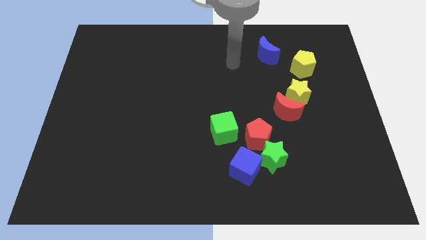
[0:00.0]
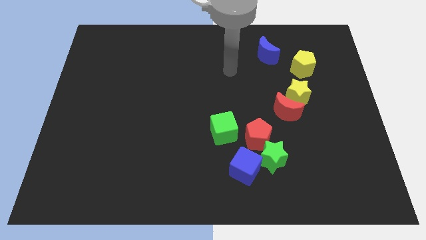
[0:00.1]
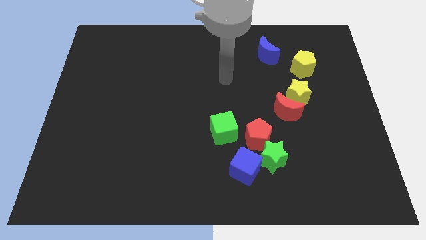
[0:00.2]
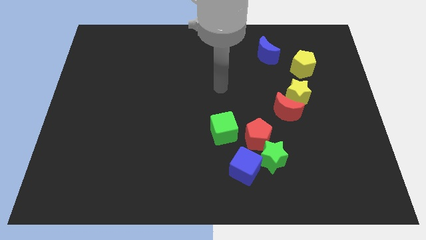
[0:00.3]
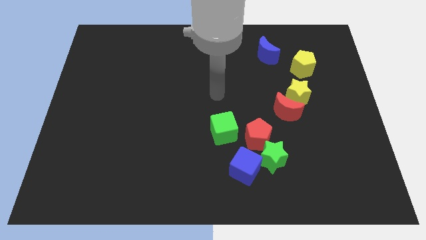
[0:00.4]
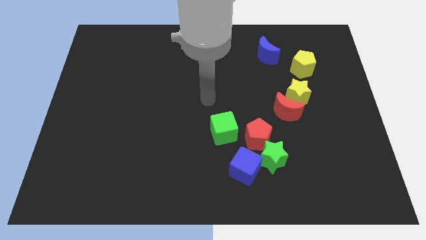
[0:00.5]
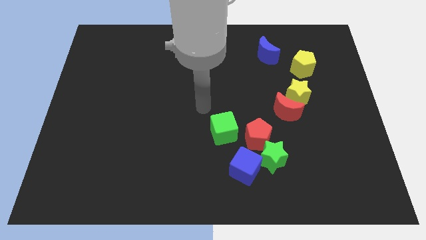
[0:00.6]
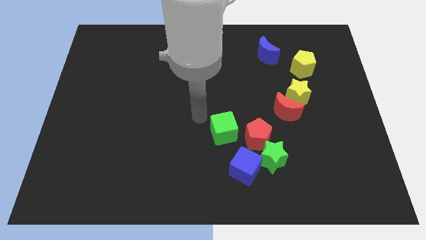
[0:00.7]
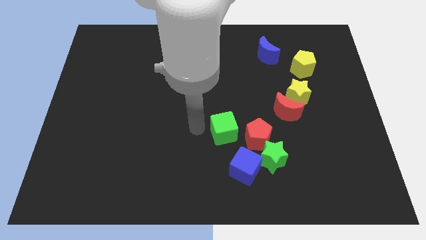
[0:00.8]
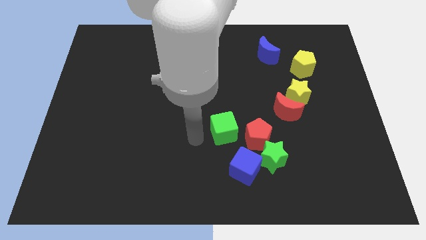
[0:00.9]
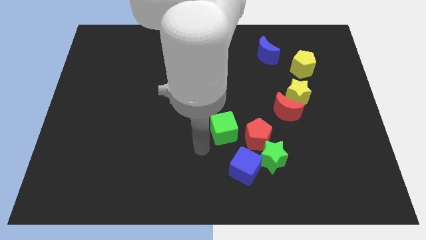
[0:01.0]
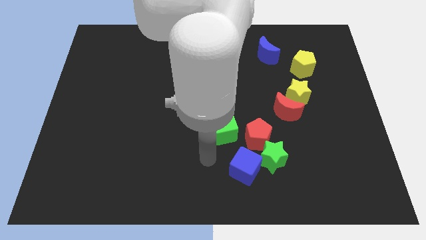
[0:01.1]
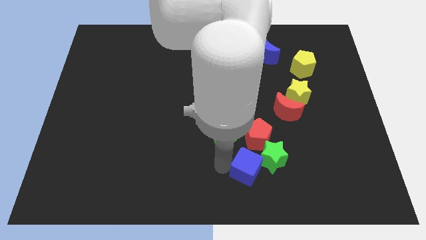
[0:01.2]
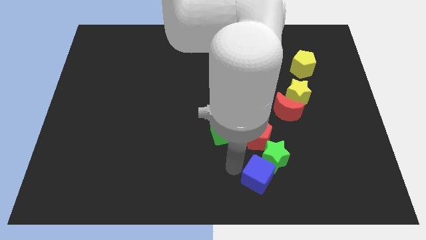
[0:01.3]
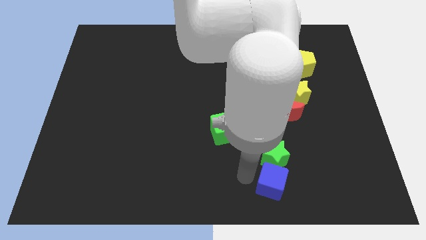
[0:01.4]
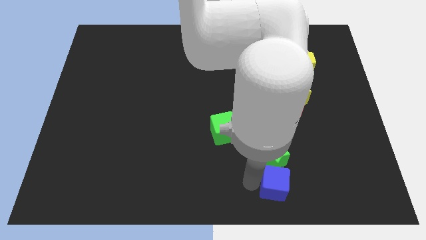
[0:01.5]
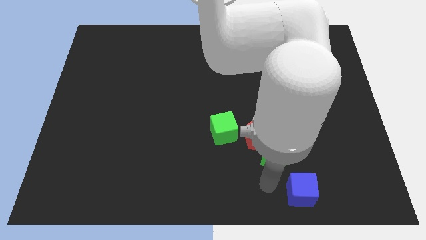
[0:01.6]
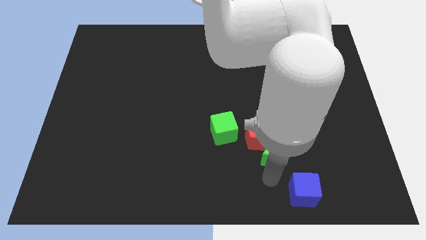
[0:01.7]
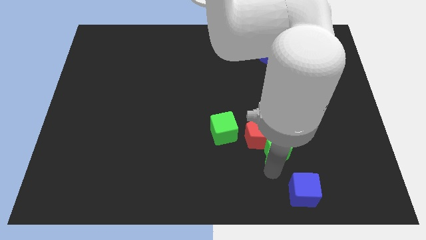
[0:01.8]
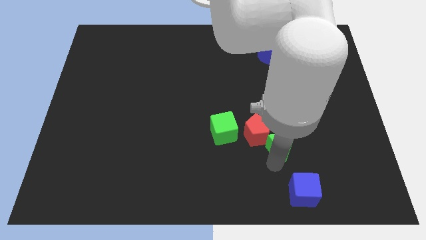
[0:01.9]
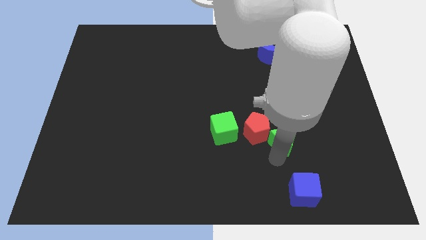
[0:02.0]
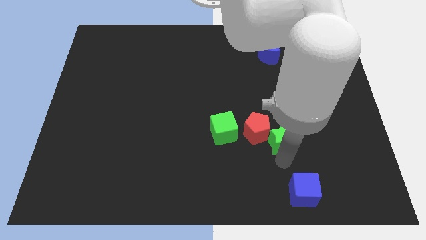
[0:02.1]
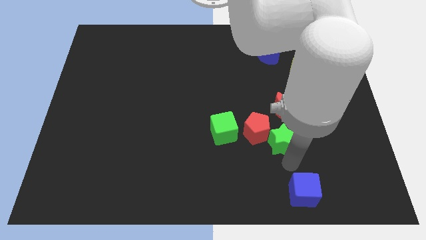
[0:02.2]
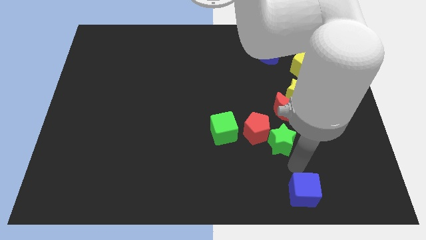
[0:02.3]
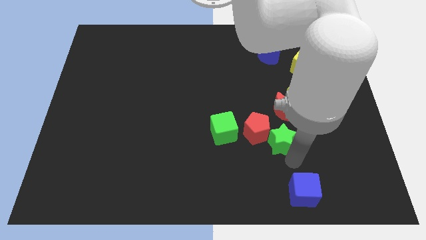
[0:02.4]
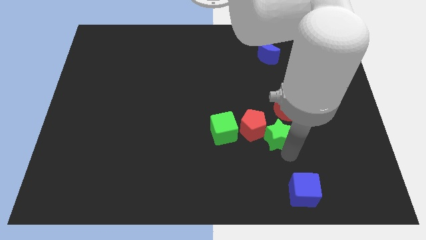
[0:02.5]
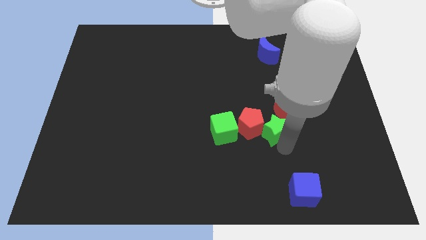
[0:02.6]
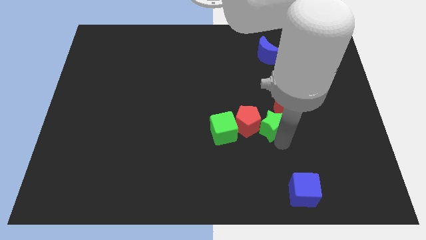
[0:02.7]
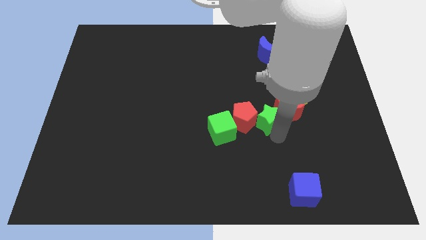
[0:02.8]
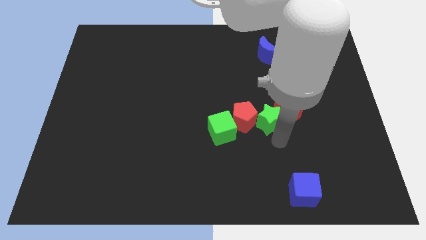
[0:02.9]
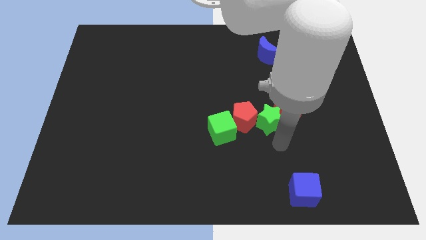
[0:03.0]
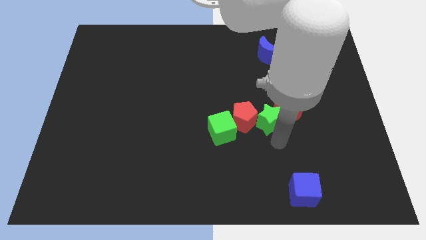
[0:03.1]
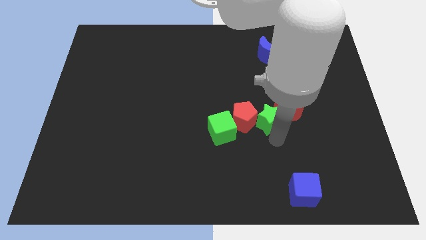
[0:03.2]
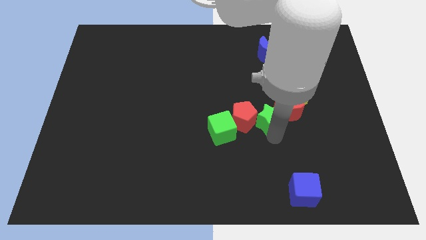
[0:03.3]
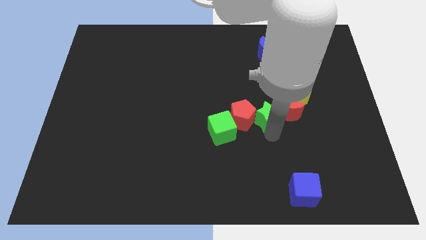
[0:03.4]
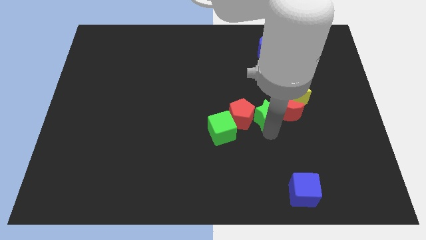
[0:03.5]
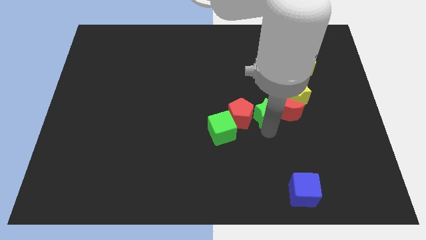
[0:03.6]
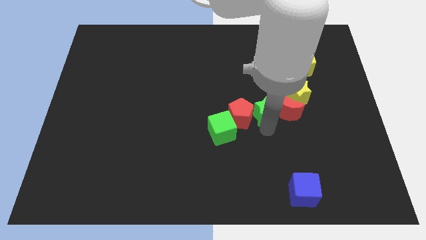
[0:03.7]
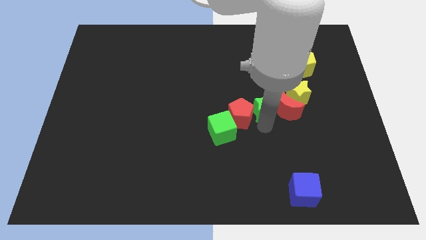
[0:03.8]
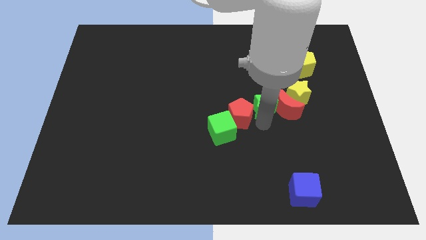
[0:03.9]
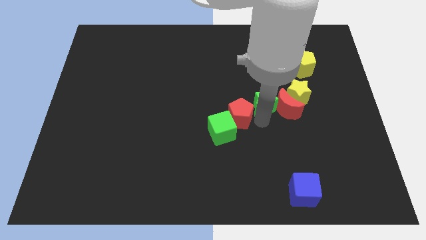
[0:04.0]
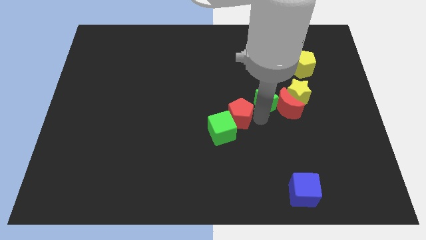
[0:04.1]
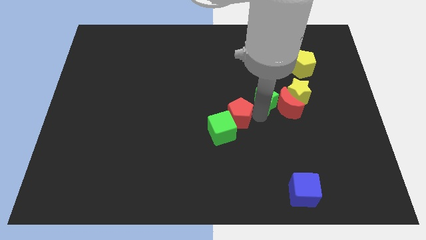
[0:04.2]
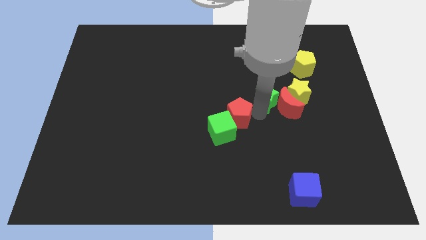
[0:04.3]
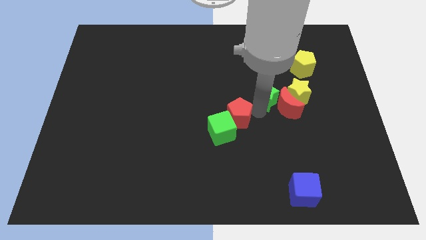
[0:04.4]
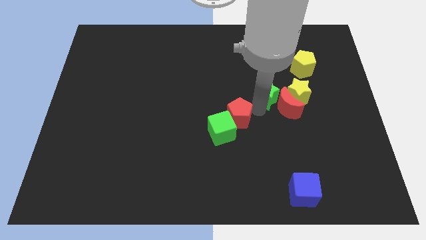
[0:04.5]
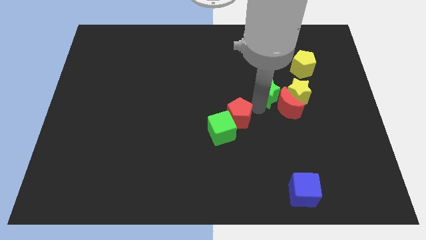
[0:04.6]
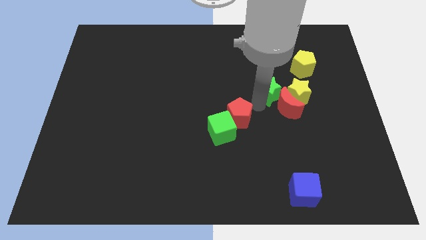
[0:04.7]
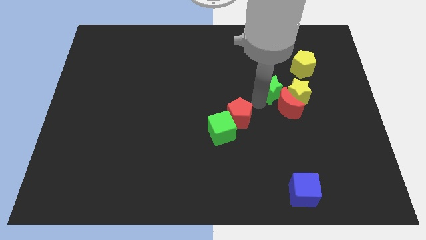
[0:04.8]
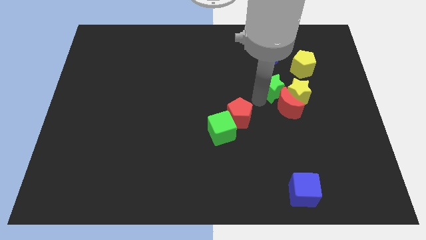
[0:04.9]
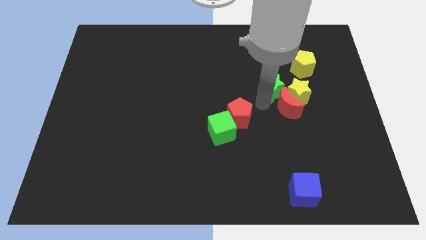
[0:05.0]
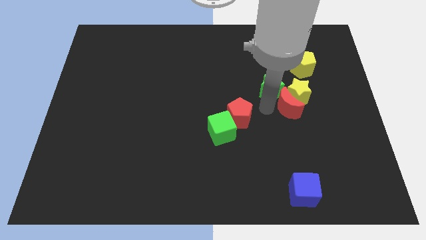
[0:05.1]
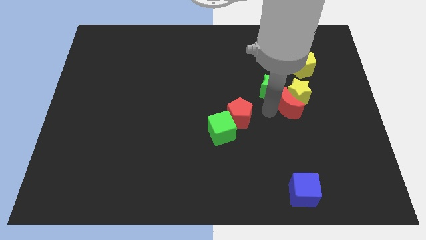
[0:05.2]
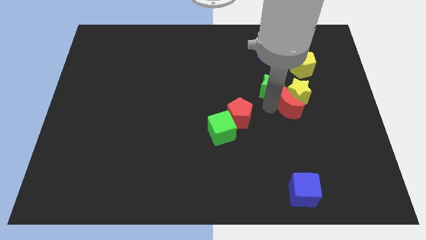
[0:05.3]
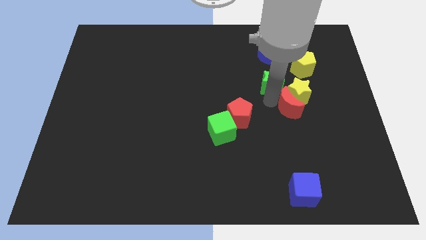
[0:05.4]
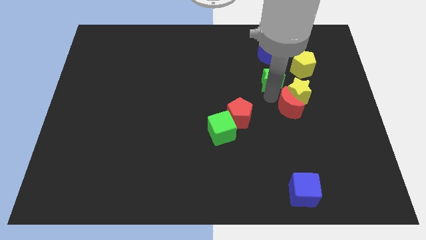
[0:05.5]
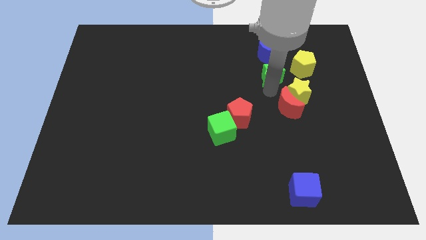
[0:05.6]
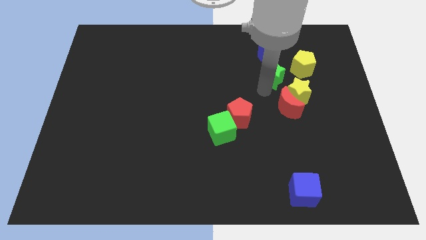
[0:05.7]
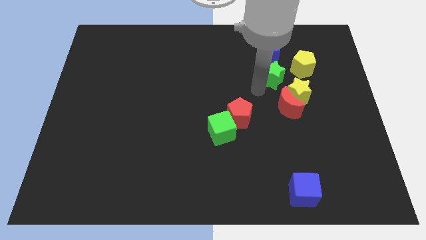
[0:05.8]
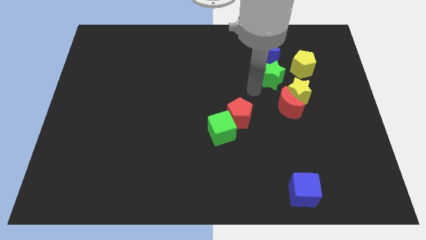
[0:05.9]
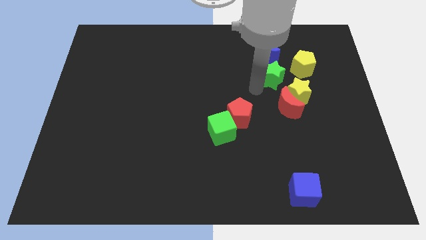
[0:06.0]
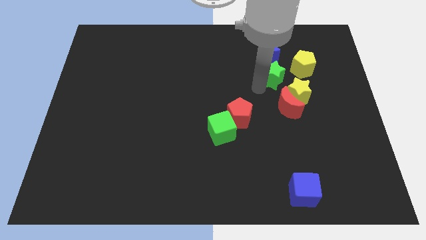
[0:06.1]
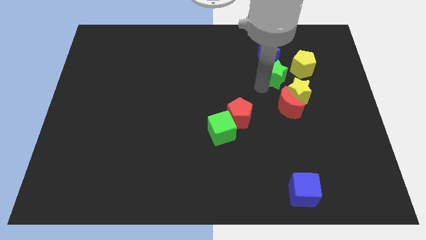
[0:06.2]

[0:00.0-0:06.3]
push the green star to the bottom right side of the blue moon

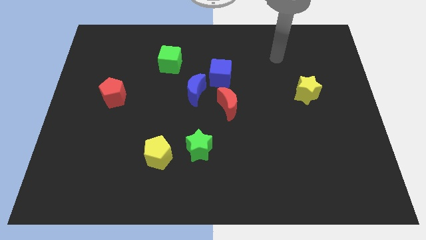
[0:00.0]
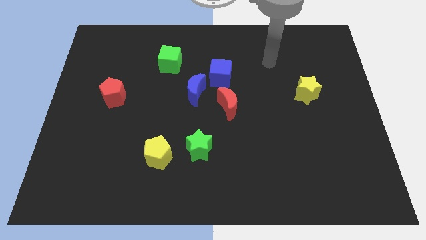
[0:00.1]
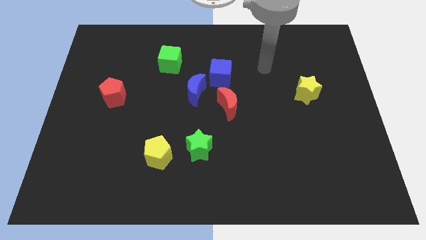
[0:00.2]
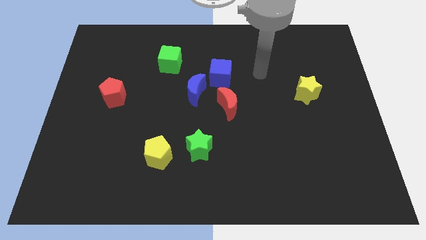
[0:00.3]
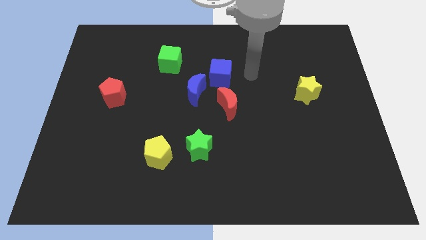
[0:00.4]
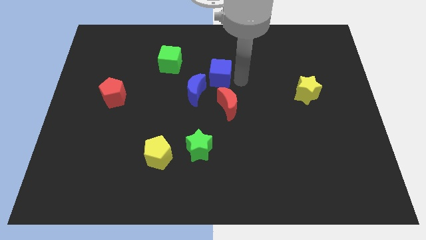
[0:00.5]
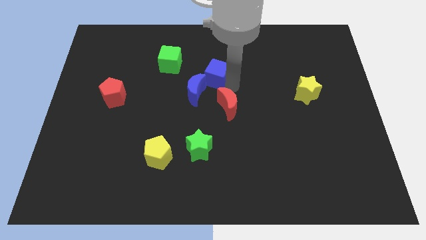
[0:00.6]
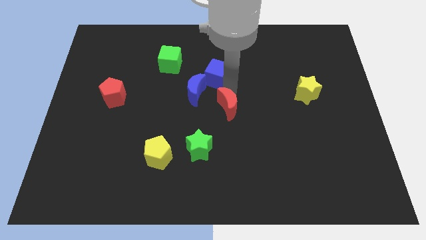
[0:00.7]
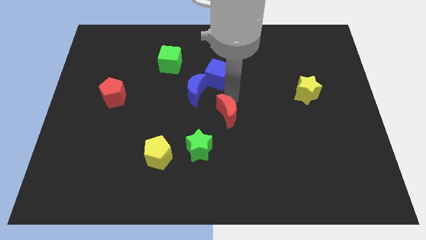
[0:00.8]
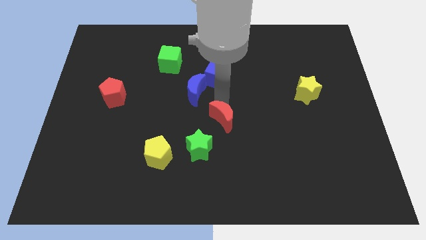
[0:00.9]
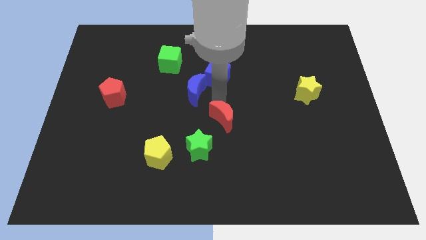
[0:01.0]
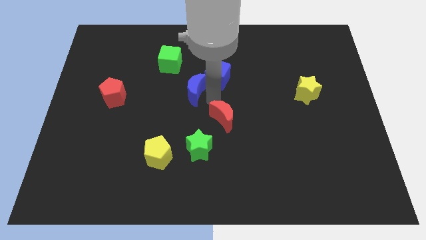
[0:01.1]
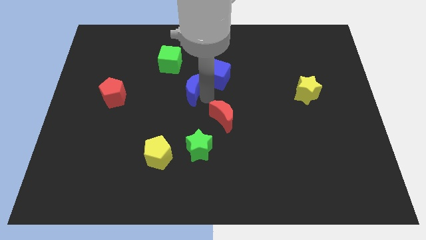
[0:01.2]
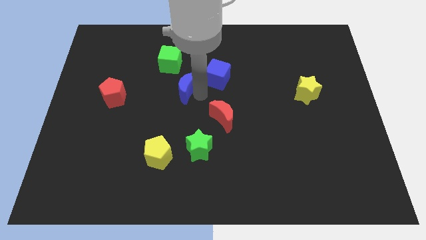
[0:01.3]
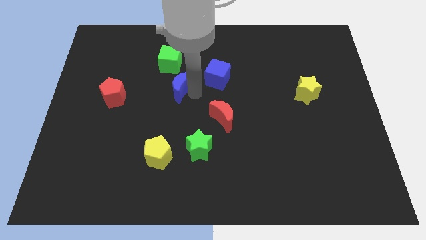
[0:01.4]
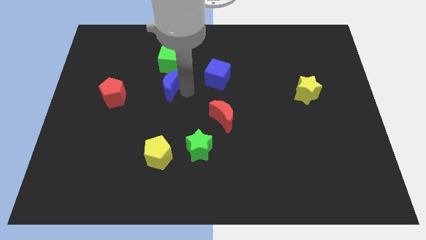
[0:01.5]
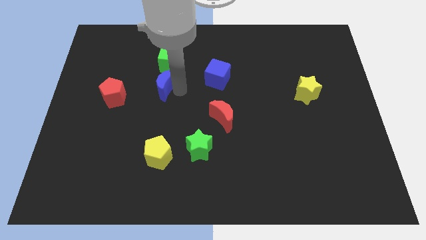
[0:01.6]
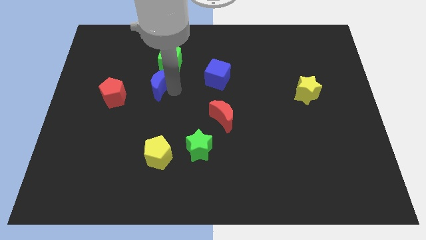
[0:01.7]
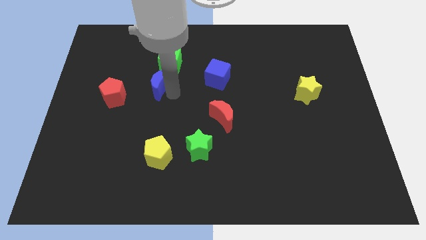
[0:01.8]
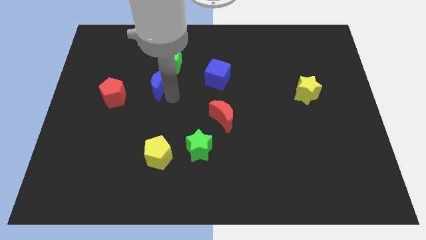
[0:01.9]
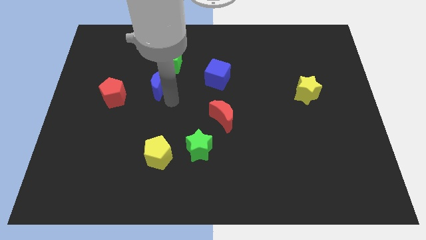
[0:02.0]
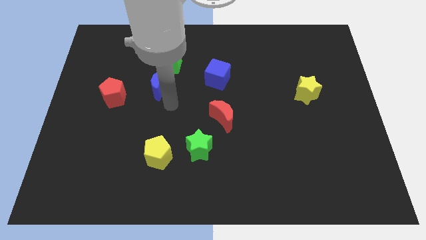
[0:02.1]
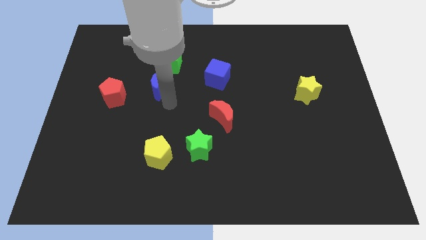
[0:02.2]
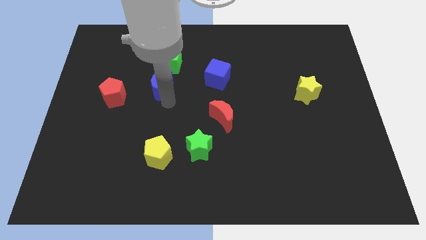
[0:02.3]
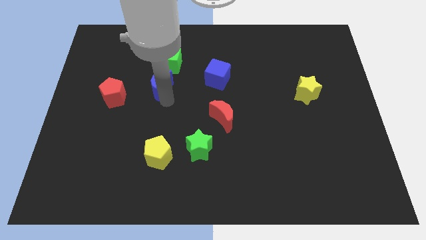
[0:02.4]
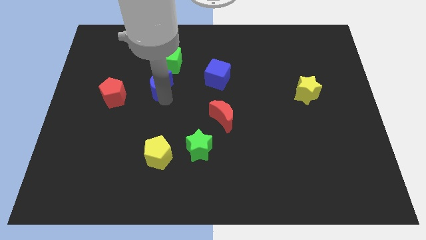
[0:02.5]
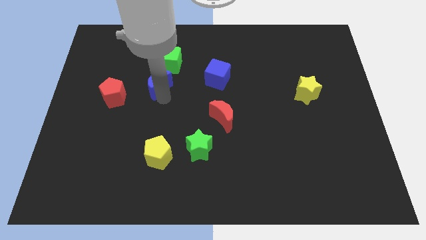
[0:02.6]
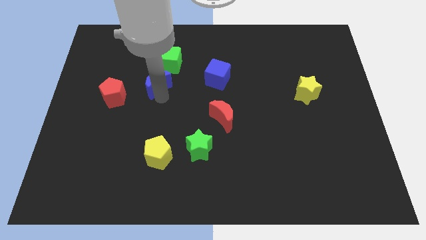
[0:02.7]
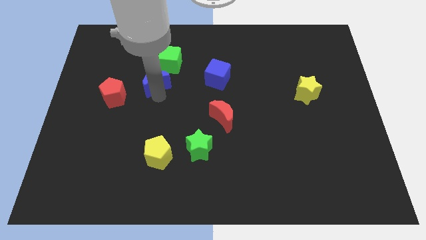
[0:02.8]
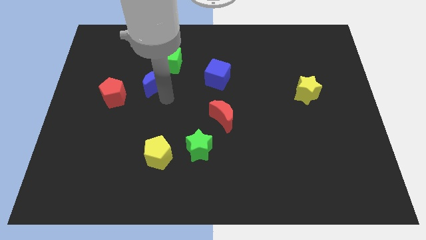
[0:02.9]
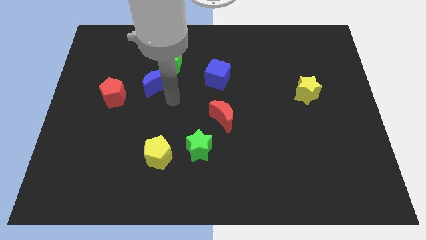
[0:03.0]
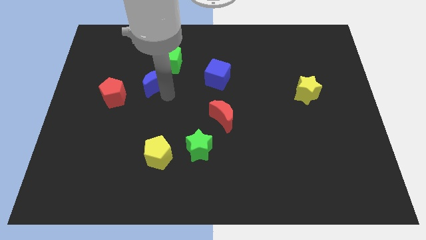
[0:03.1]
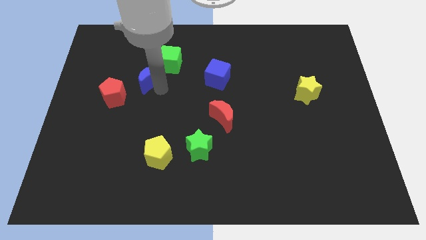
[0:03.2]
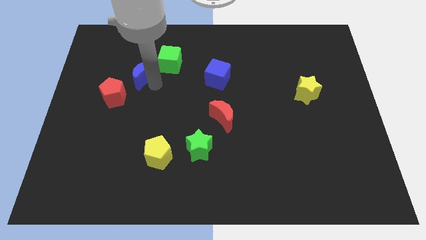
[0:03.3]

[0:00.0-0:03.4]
move the blue moon to the left of the green cube
